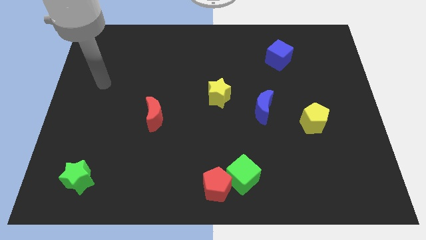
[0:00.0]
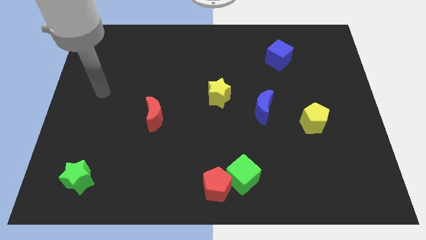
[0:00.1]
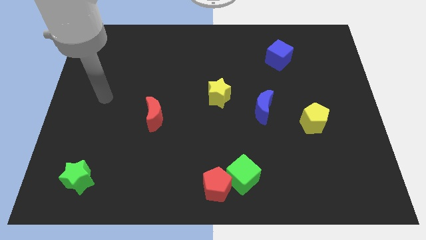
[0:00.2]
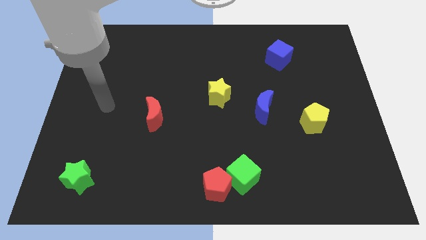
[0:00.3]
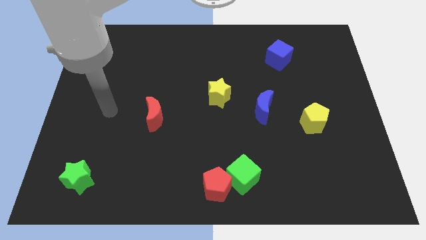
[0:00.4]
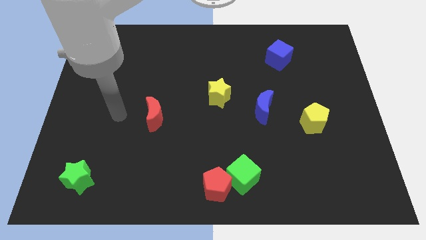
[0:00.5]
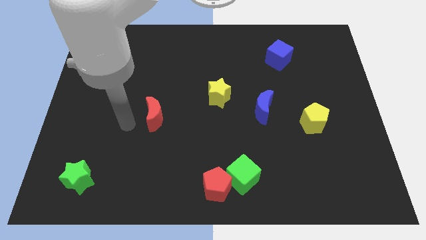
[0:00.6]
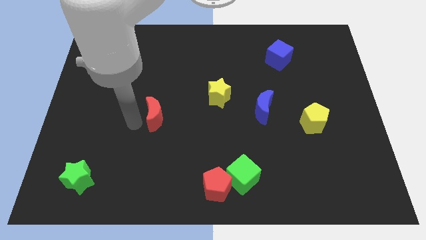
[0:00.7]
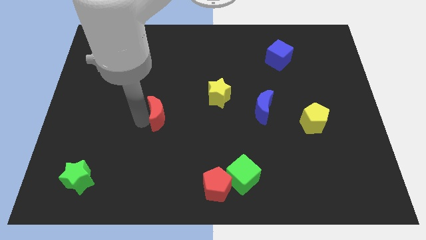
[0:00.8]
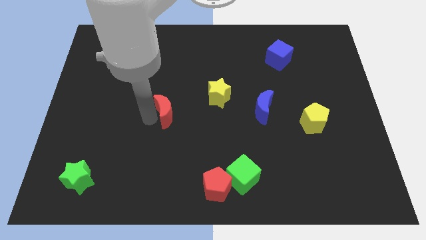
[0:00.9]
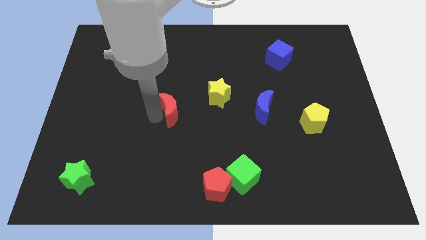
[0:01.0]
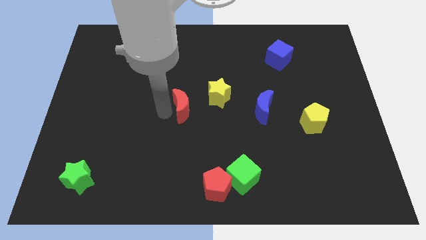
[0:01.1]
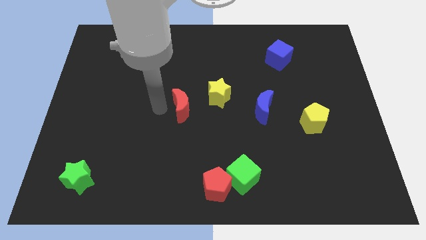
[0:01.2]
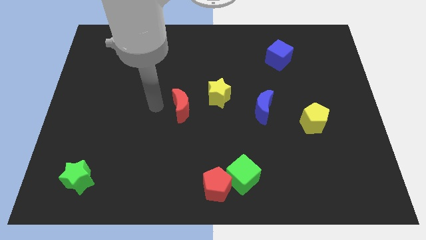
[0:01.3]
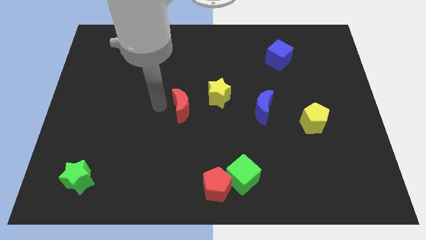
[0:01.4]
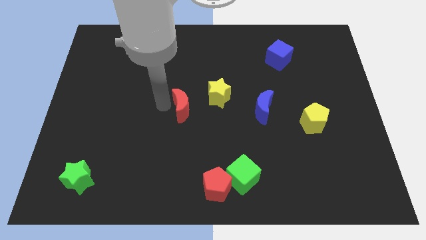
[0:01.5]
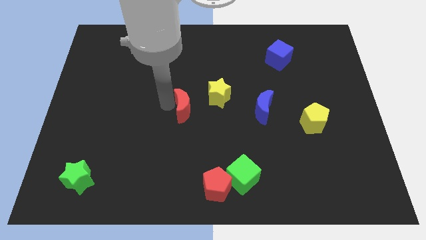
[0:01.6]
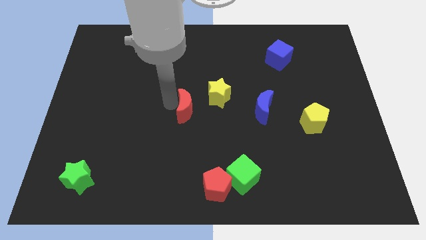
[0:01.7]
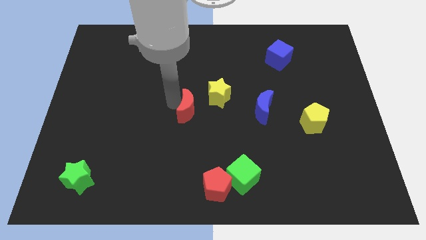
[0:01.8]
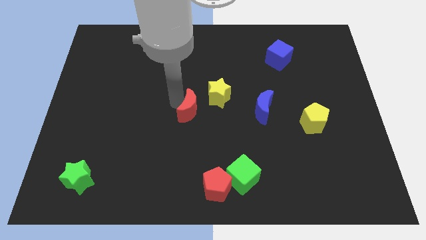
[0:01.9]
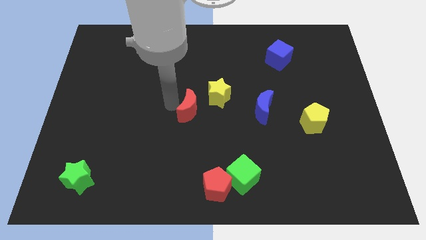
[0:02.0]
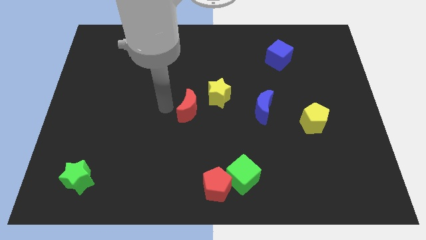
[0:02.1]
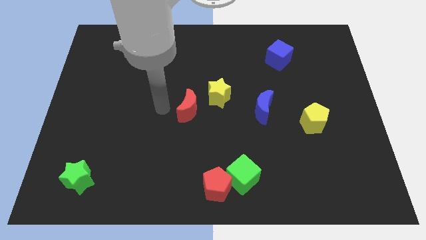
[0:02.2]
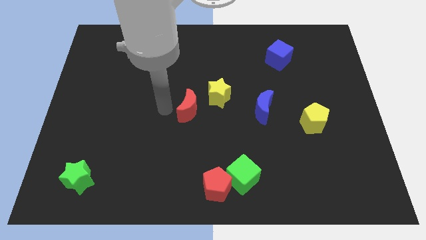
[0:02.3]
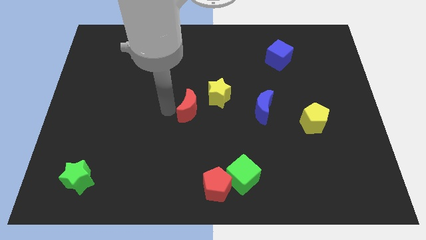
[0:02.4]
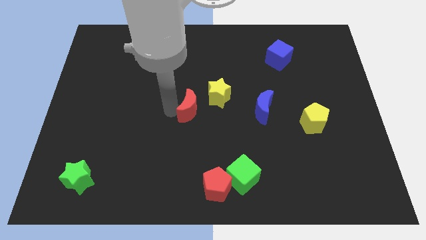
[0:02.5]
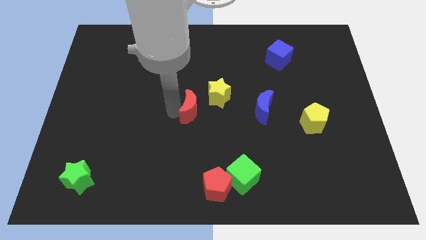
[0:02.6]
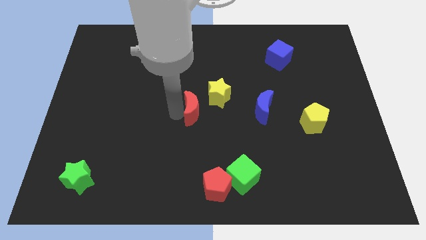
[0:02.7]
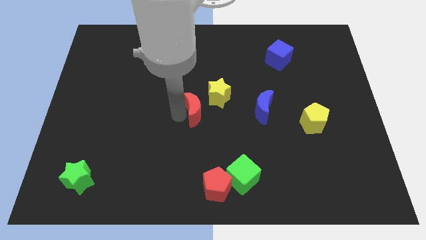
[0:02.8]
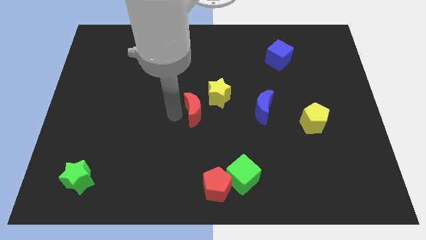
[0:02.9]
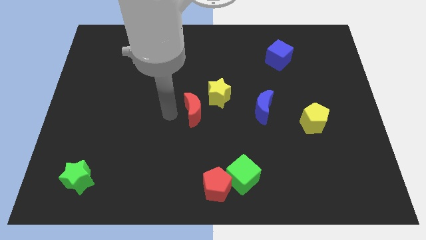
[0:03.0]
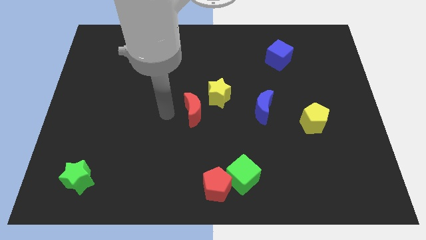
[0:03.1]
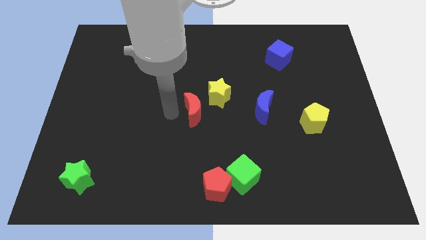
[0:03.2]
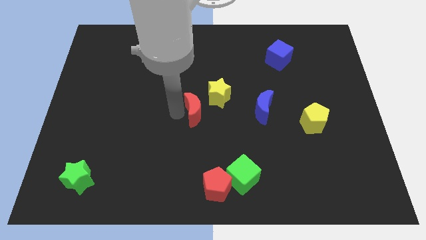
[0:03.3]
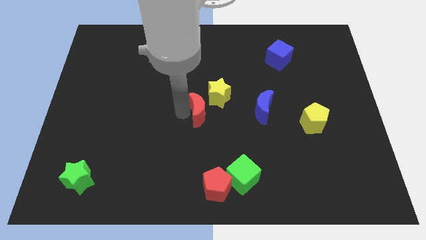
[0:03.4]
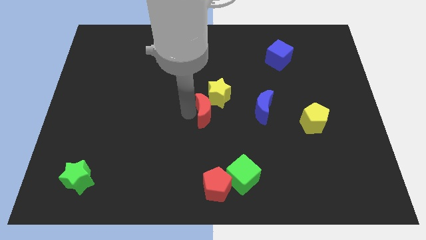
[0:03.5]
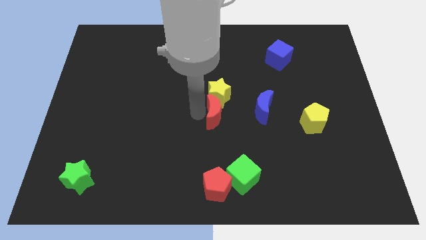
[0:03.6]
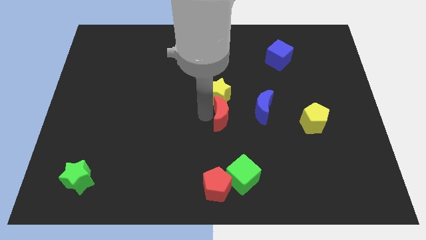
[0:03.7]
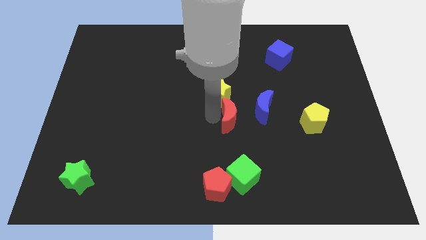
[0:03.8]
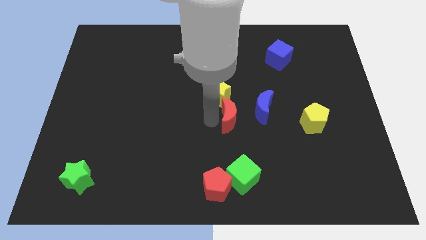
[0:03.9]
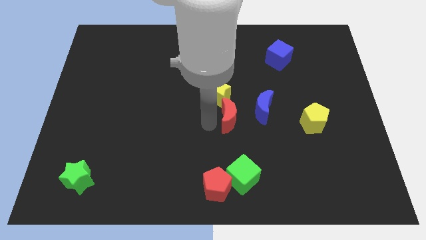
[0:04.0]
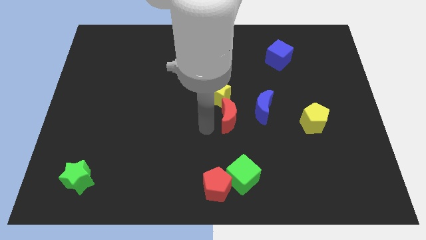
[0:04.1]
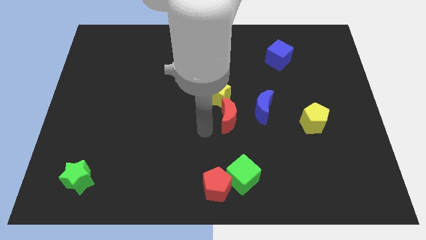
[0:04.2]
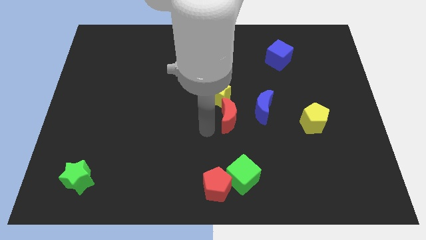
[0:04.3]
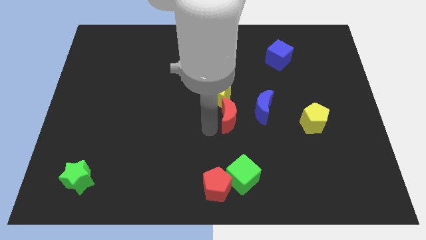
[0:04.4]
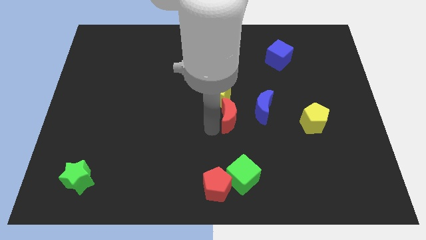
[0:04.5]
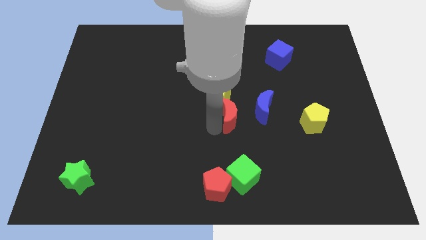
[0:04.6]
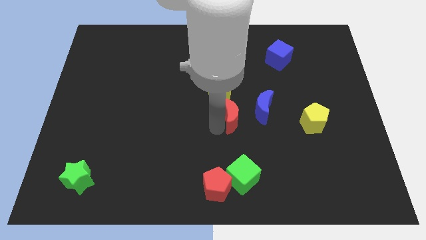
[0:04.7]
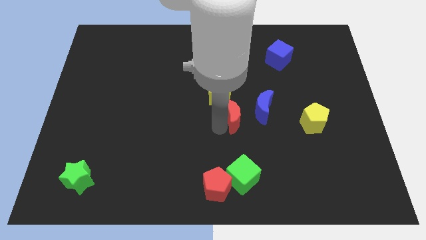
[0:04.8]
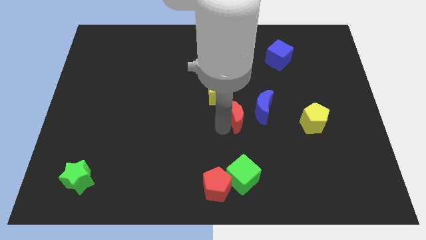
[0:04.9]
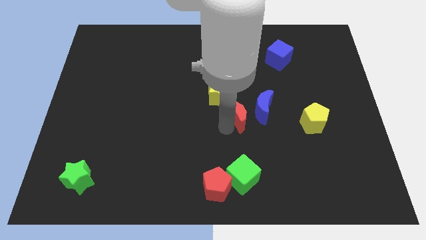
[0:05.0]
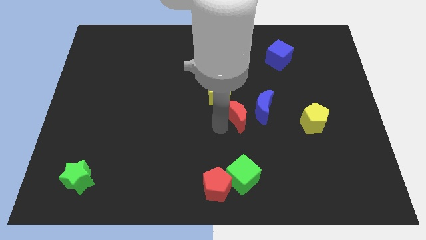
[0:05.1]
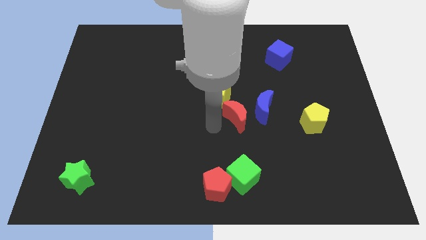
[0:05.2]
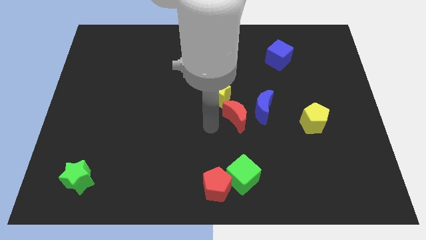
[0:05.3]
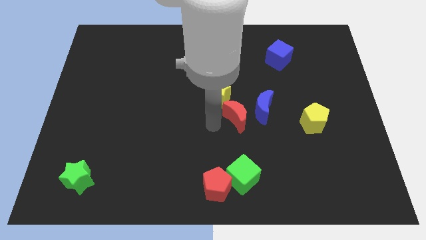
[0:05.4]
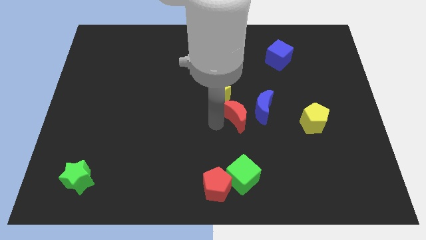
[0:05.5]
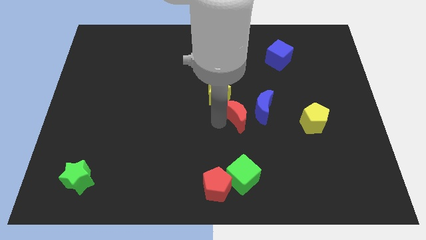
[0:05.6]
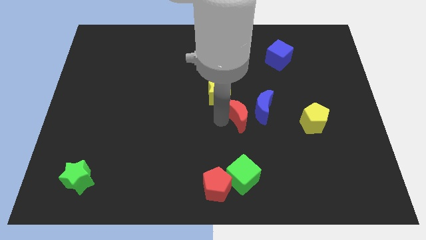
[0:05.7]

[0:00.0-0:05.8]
move the red moon next to the blue moon

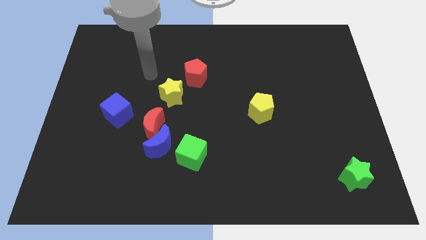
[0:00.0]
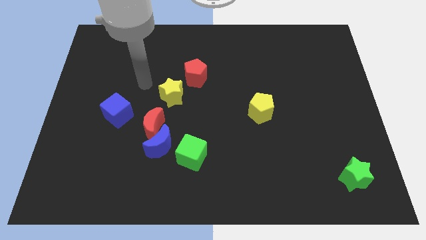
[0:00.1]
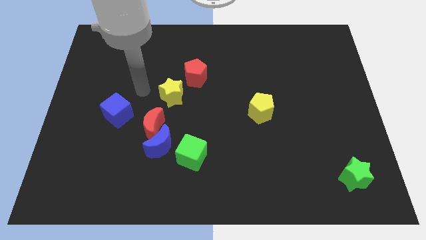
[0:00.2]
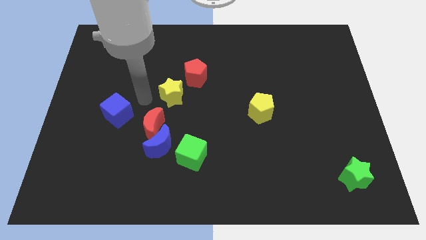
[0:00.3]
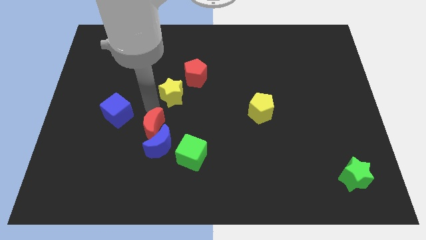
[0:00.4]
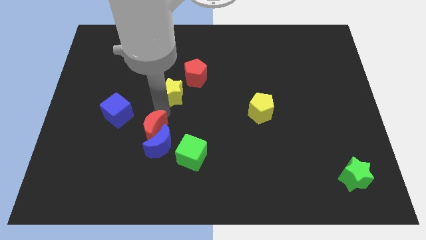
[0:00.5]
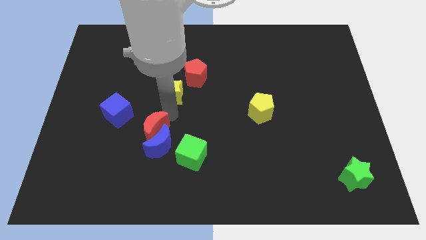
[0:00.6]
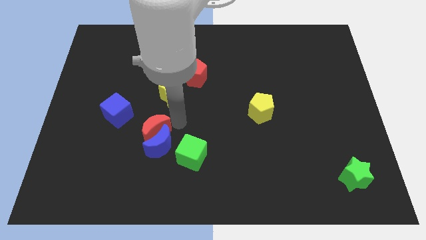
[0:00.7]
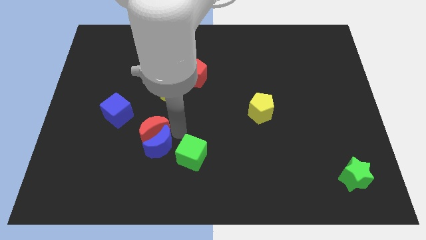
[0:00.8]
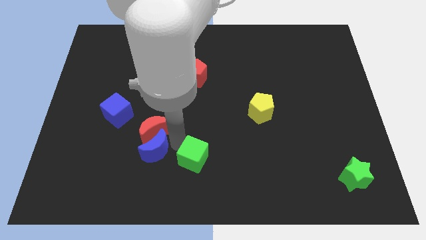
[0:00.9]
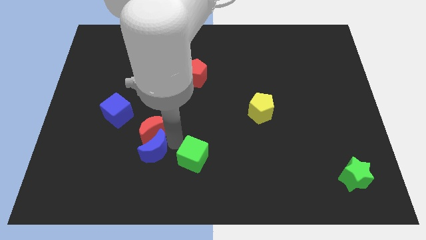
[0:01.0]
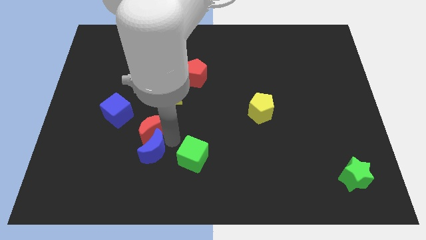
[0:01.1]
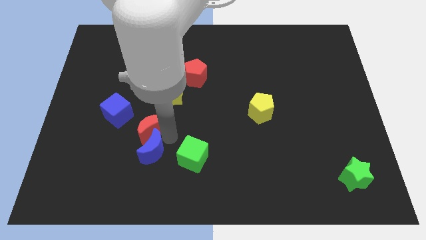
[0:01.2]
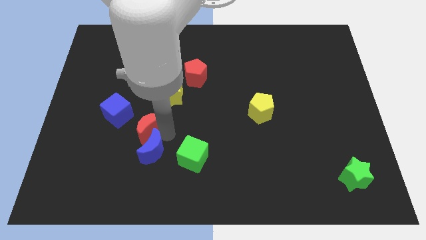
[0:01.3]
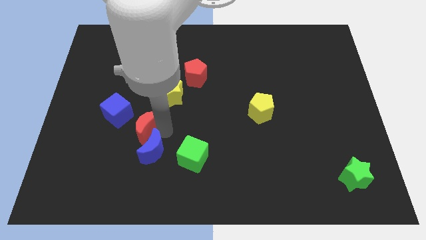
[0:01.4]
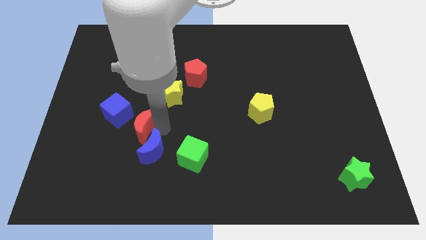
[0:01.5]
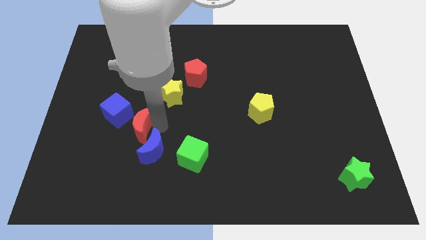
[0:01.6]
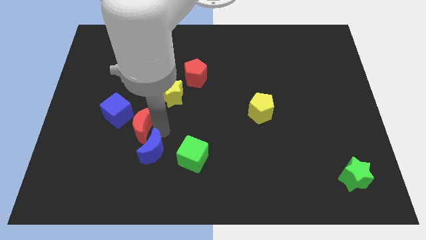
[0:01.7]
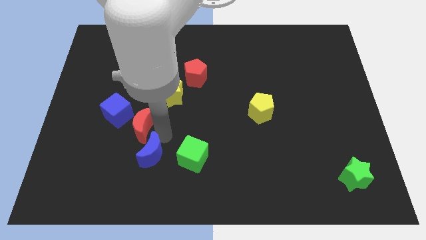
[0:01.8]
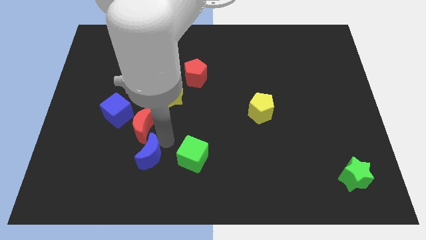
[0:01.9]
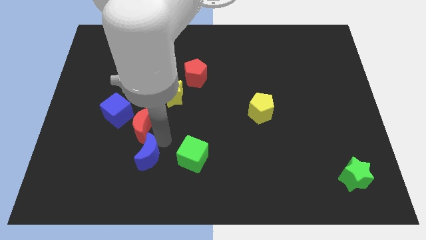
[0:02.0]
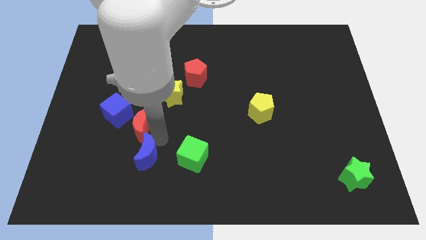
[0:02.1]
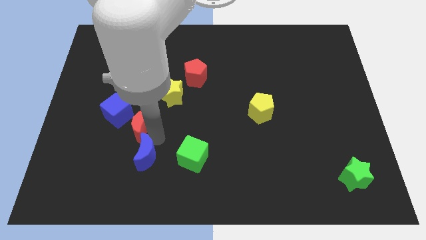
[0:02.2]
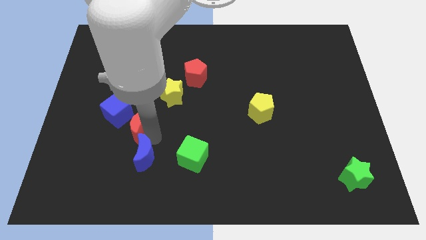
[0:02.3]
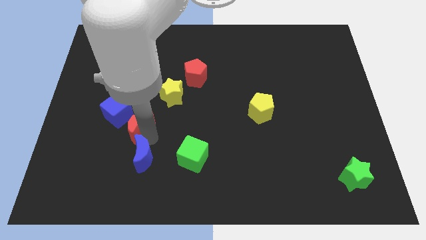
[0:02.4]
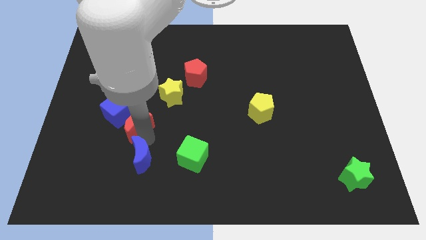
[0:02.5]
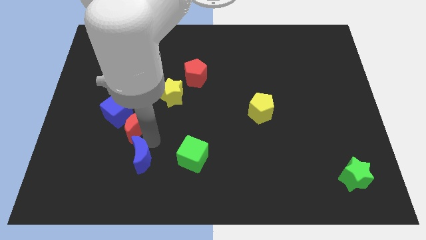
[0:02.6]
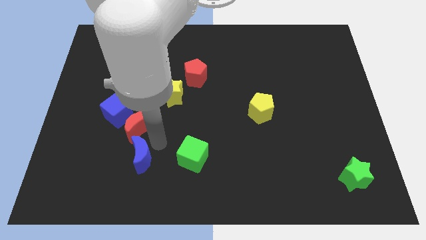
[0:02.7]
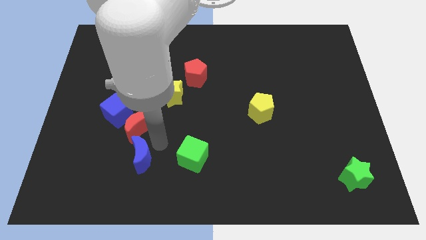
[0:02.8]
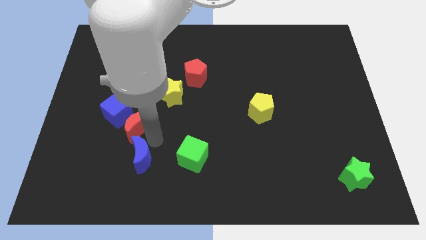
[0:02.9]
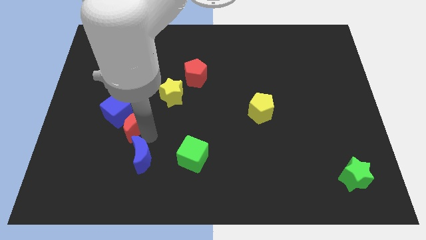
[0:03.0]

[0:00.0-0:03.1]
move the red moon close to the blue cube
